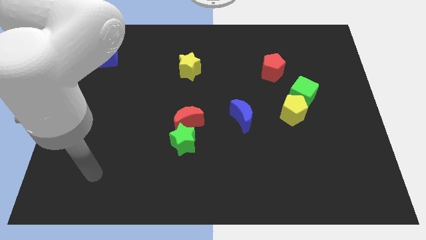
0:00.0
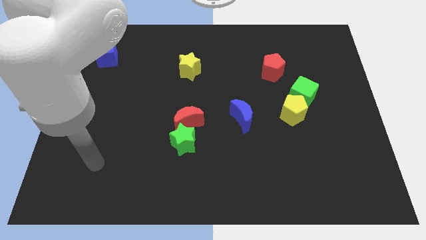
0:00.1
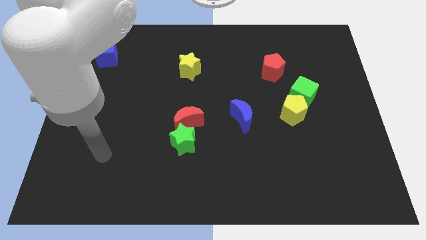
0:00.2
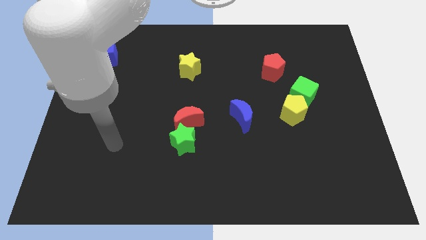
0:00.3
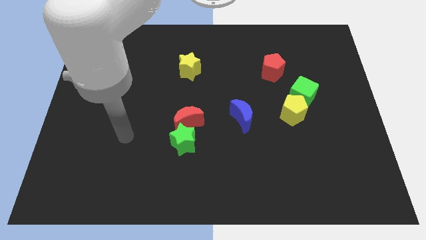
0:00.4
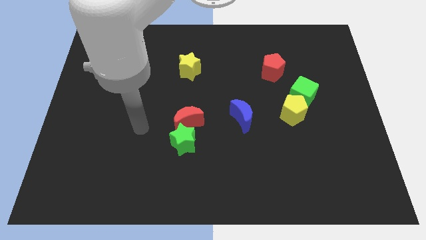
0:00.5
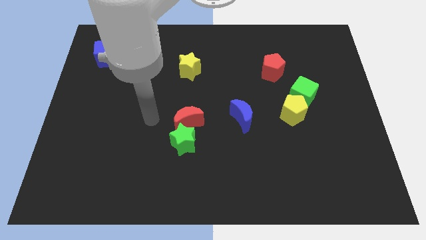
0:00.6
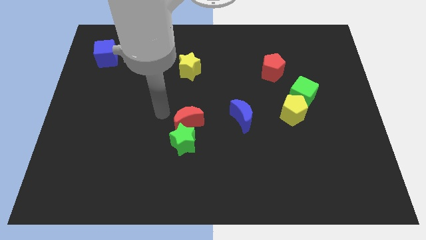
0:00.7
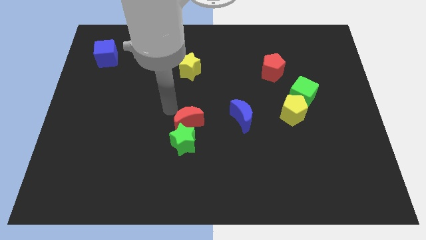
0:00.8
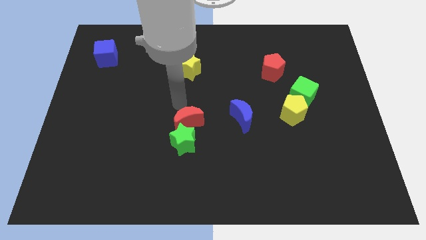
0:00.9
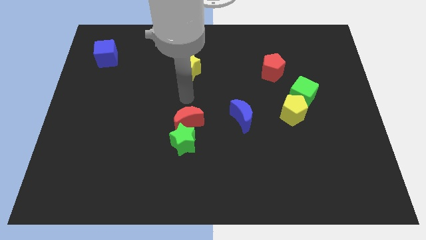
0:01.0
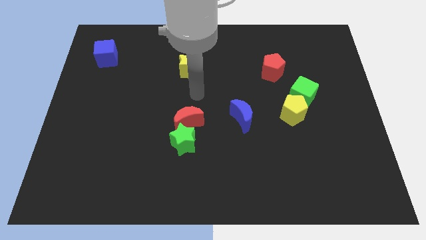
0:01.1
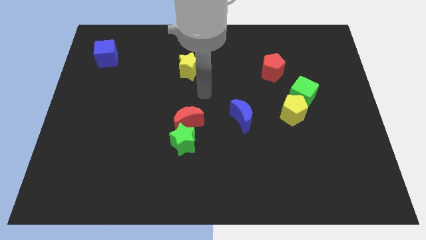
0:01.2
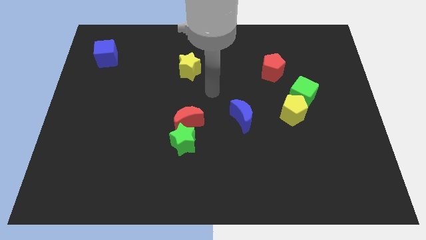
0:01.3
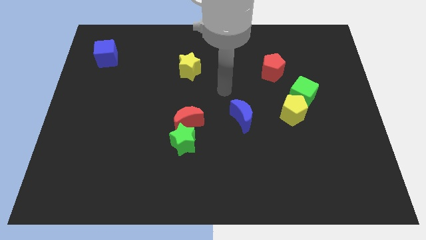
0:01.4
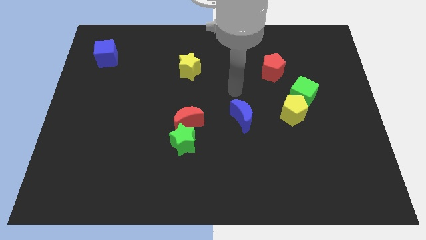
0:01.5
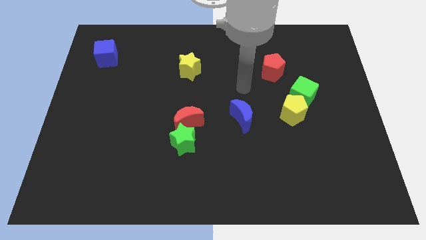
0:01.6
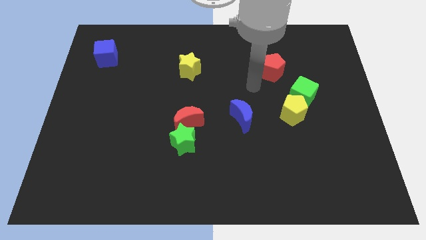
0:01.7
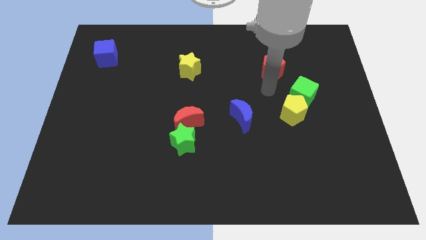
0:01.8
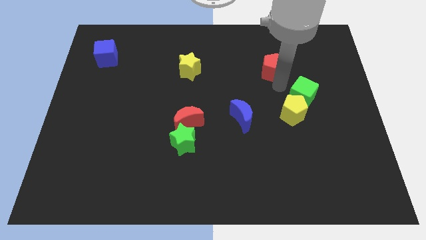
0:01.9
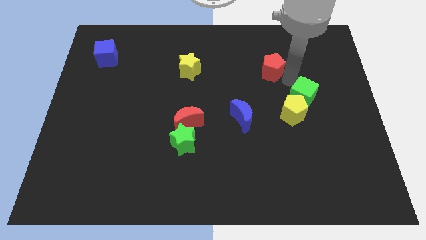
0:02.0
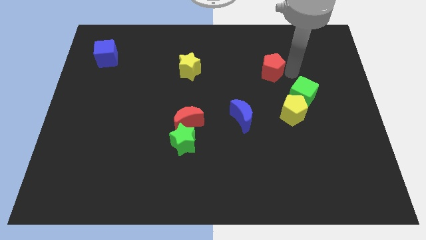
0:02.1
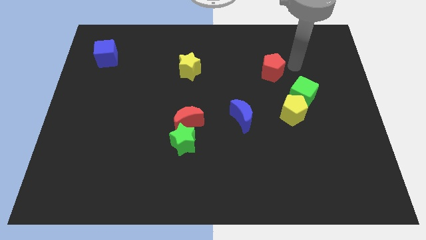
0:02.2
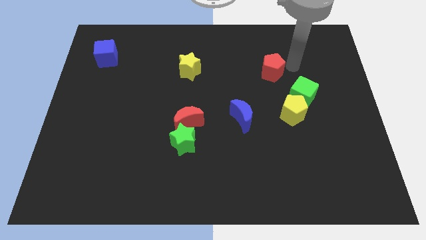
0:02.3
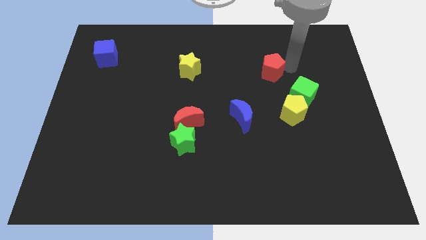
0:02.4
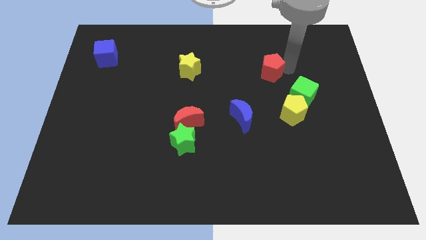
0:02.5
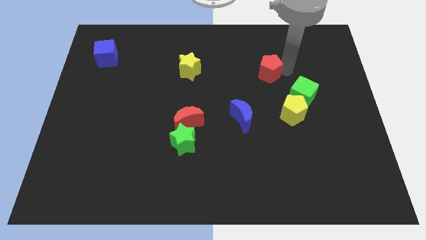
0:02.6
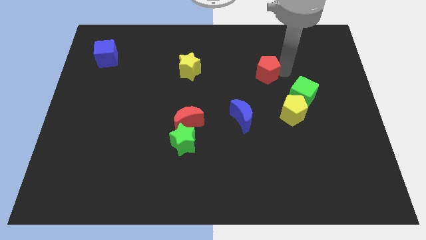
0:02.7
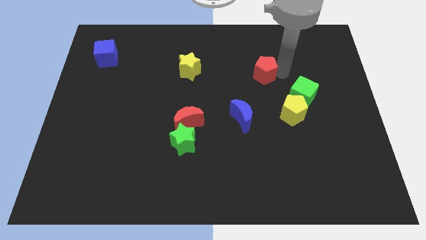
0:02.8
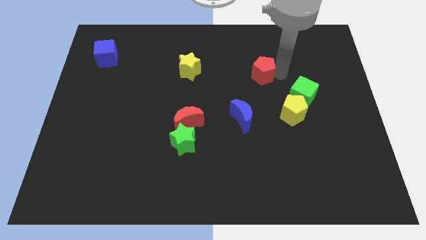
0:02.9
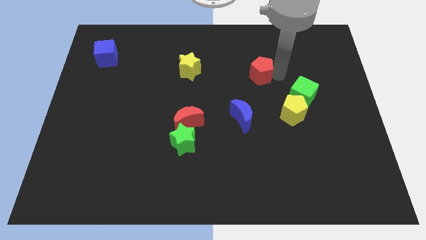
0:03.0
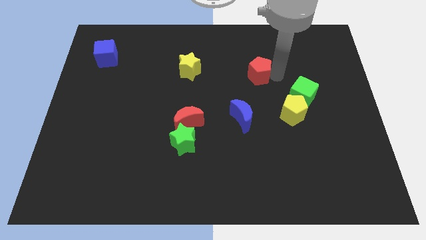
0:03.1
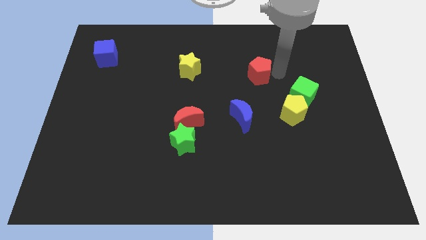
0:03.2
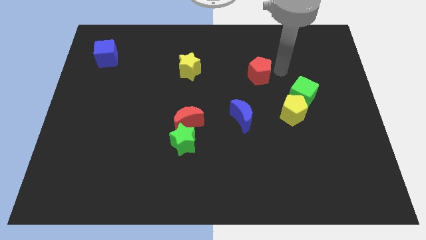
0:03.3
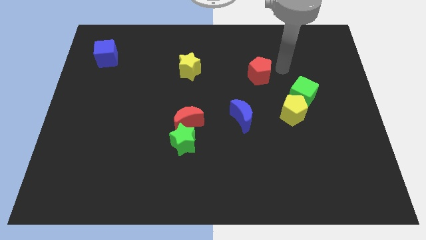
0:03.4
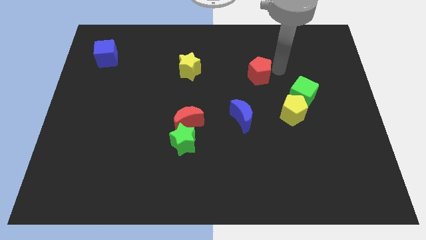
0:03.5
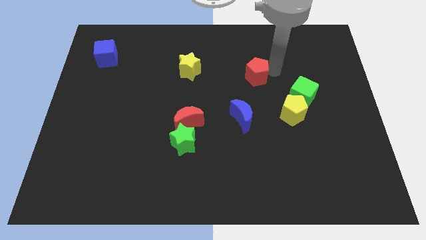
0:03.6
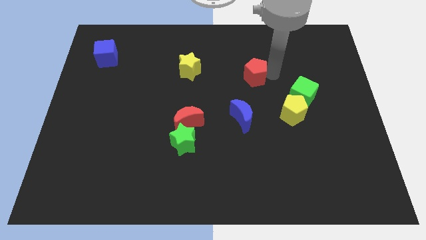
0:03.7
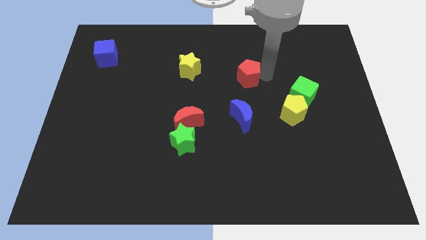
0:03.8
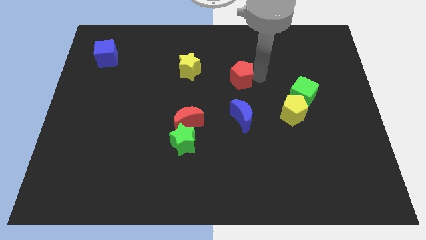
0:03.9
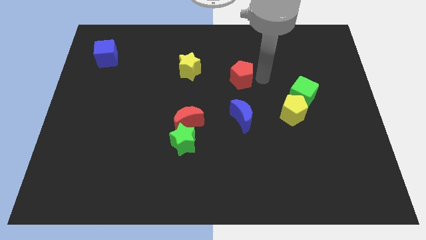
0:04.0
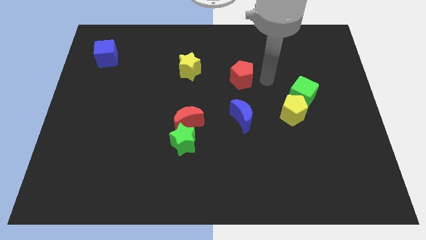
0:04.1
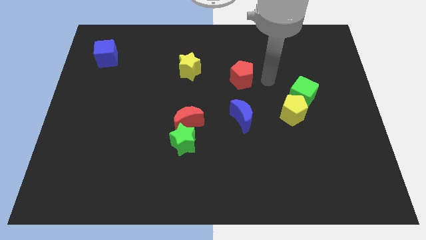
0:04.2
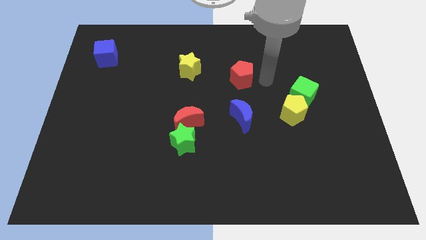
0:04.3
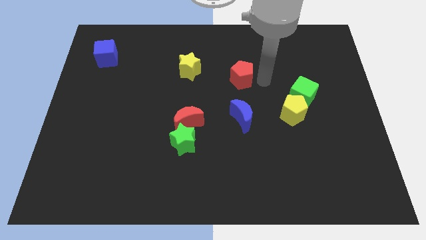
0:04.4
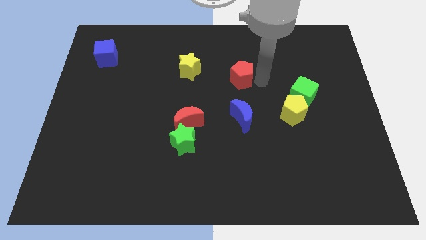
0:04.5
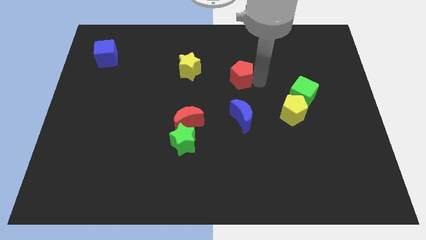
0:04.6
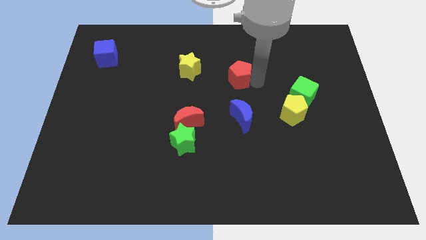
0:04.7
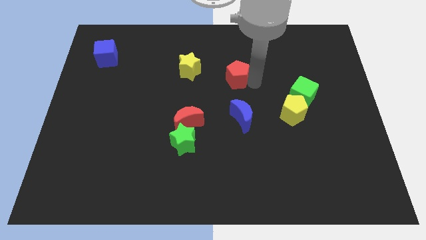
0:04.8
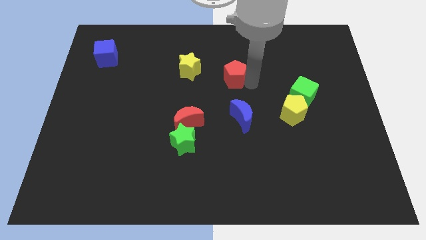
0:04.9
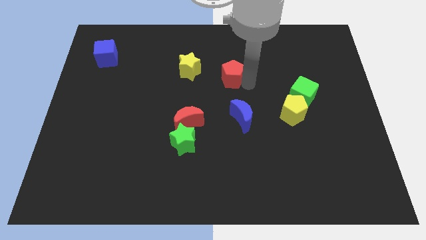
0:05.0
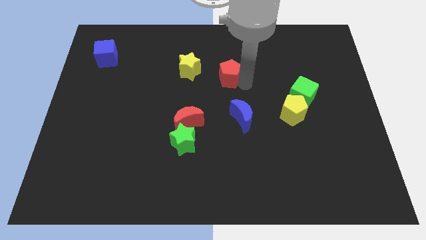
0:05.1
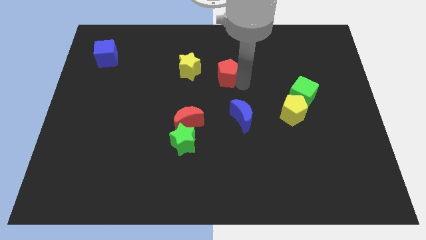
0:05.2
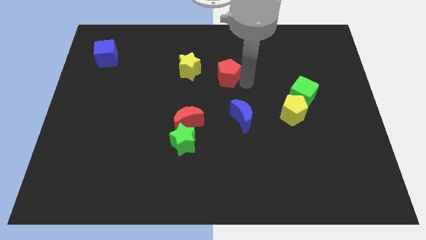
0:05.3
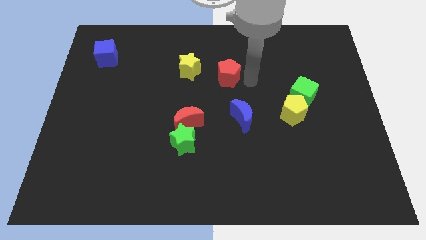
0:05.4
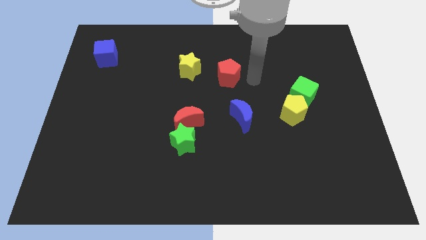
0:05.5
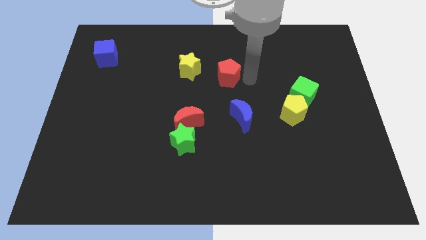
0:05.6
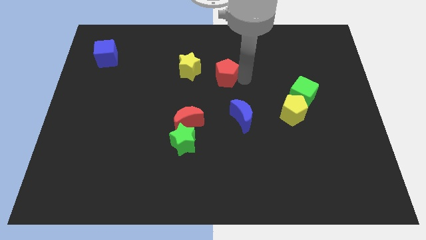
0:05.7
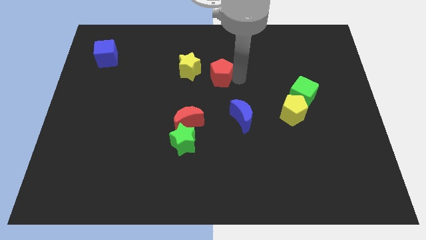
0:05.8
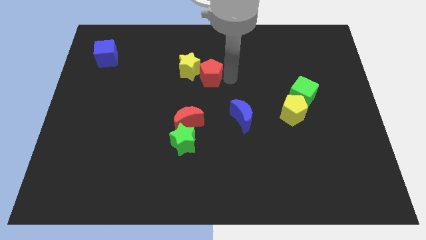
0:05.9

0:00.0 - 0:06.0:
move the red pentagon next to the yellow star

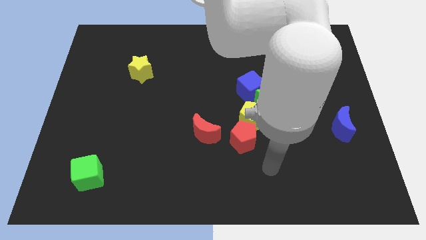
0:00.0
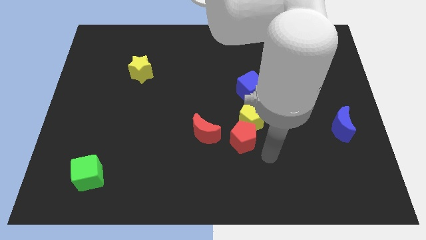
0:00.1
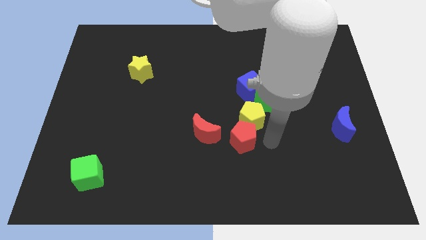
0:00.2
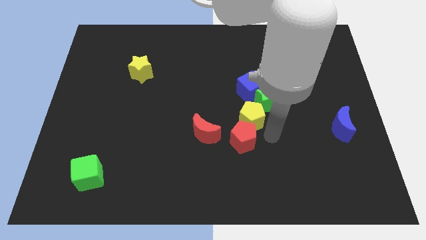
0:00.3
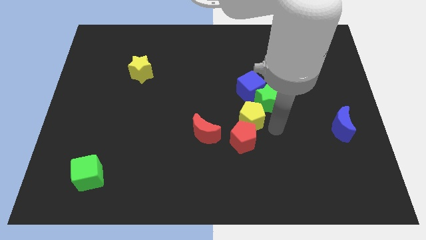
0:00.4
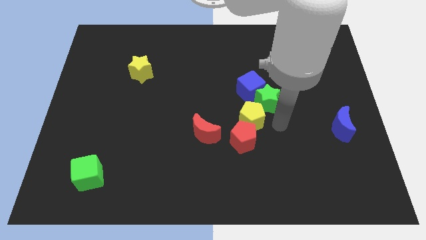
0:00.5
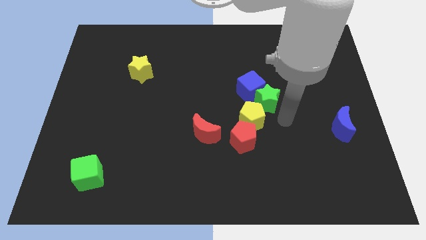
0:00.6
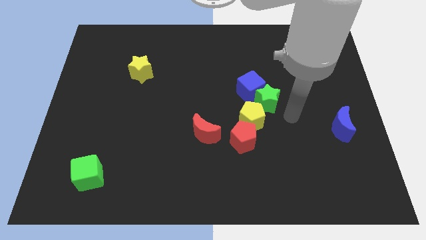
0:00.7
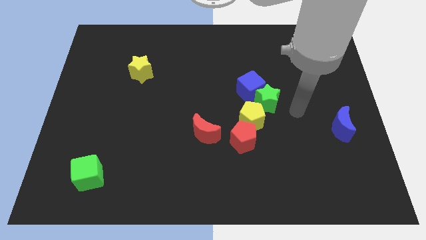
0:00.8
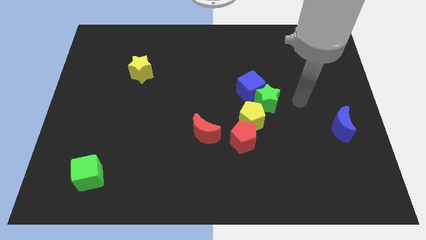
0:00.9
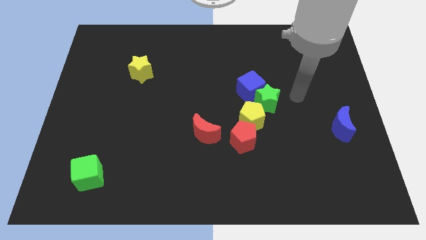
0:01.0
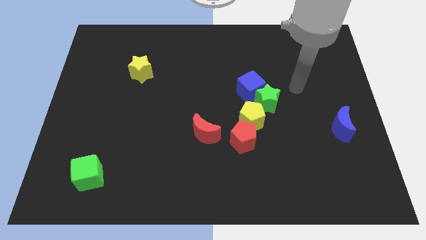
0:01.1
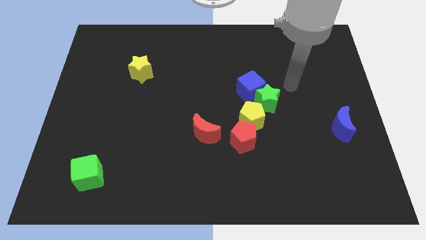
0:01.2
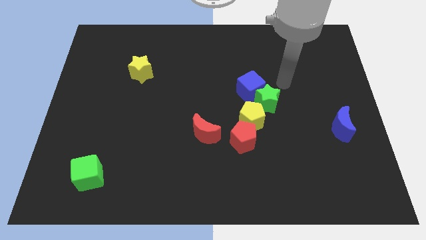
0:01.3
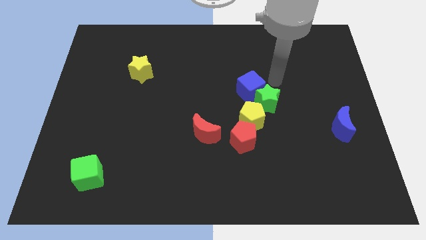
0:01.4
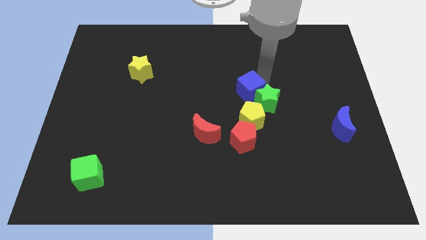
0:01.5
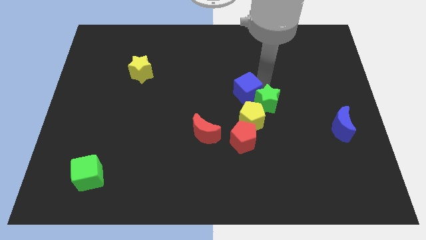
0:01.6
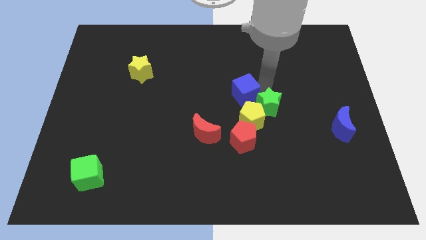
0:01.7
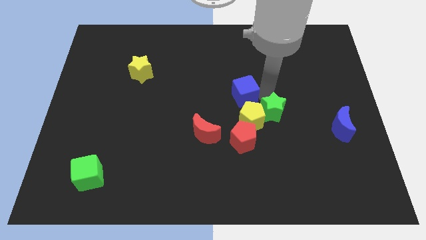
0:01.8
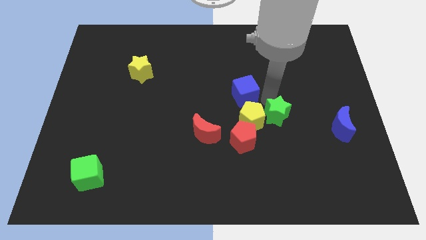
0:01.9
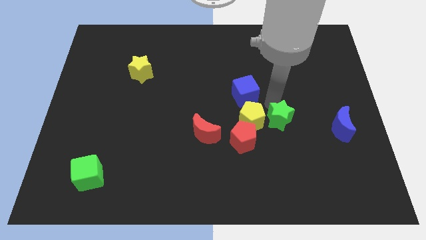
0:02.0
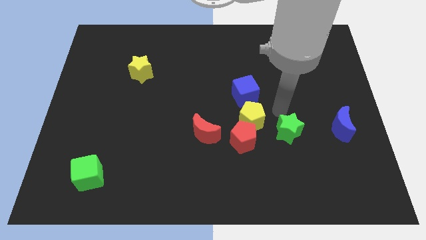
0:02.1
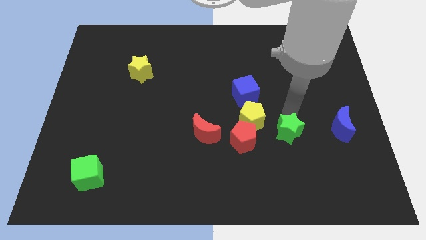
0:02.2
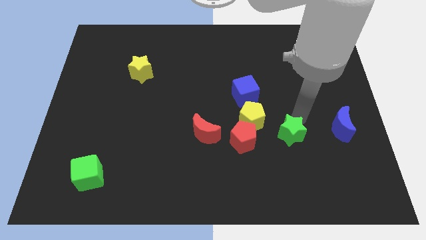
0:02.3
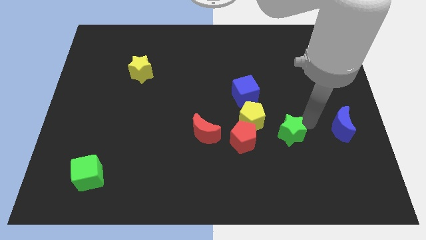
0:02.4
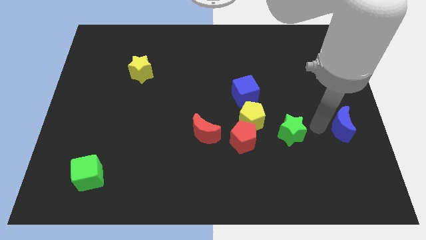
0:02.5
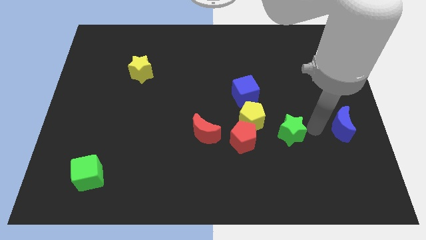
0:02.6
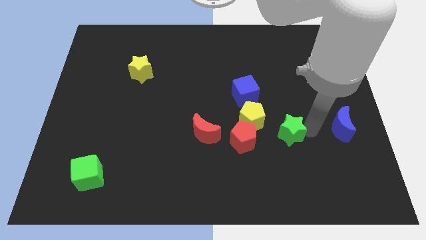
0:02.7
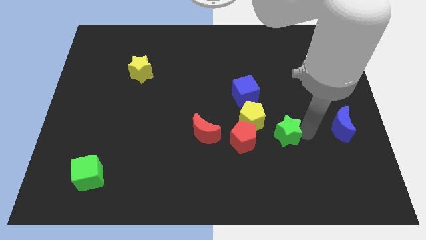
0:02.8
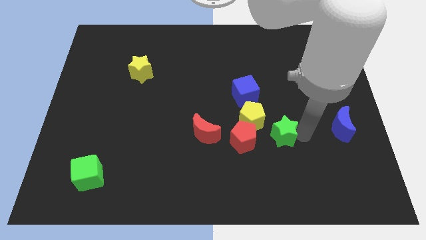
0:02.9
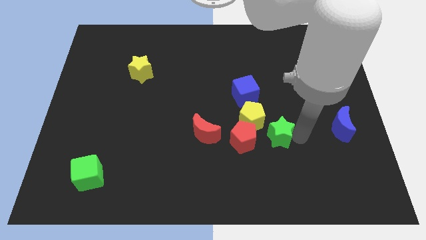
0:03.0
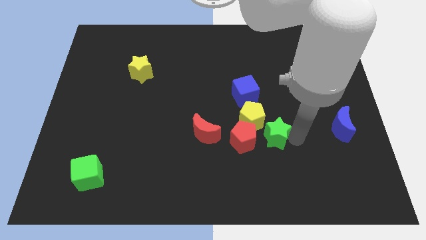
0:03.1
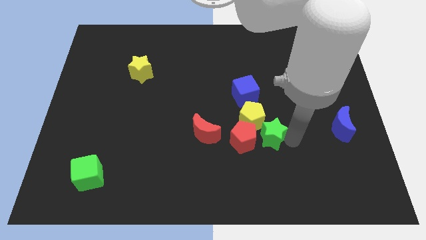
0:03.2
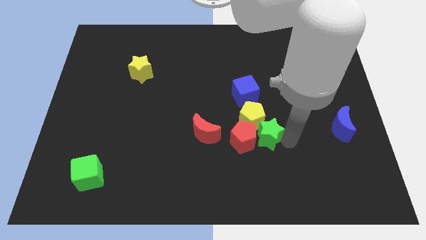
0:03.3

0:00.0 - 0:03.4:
move the green star to the red pentagon
